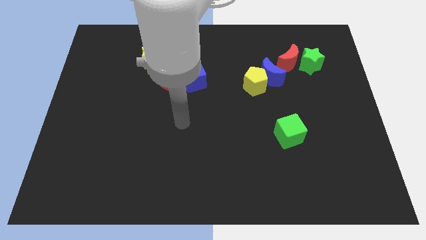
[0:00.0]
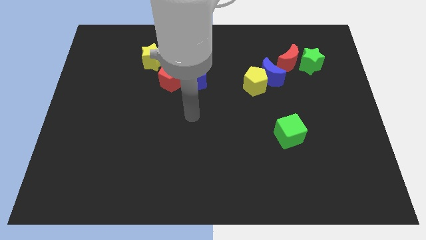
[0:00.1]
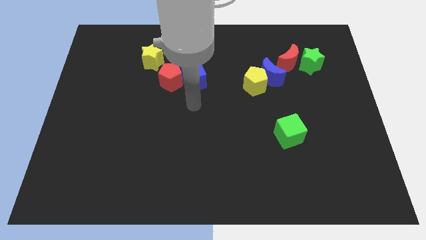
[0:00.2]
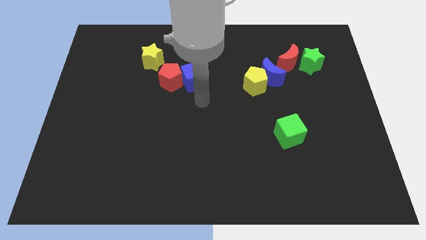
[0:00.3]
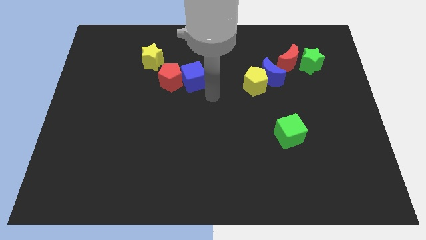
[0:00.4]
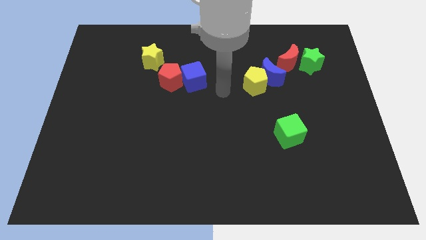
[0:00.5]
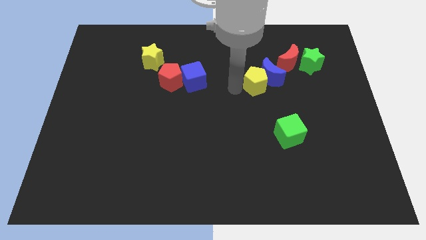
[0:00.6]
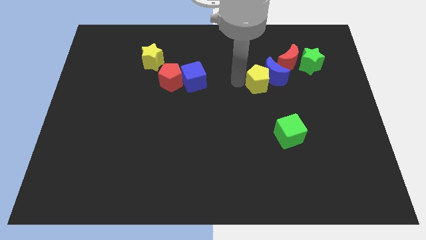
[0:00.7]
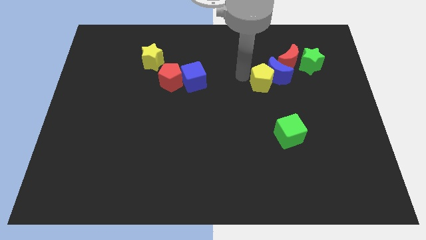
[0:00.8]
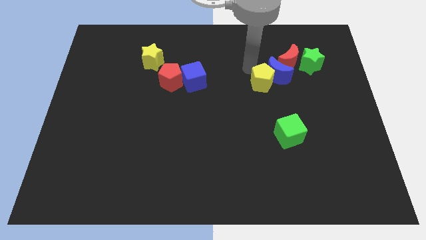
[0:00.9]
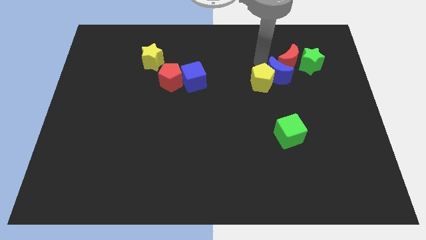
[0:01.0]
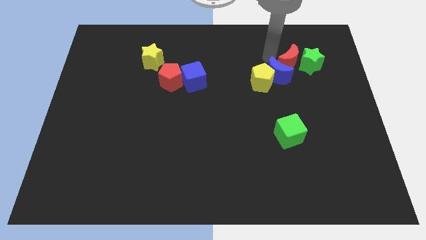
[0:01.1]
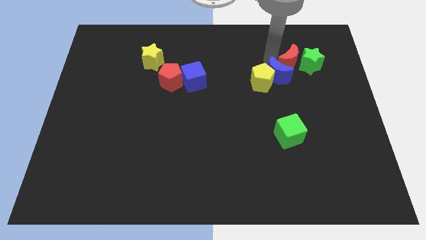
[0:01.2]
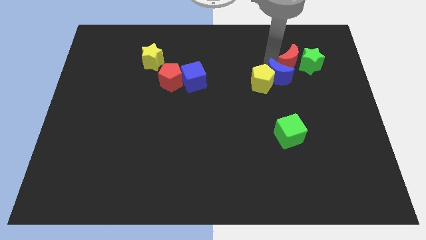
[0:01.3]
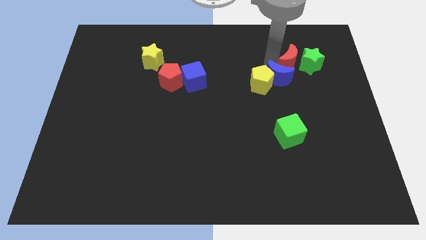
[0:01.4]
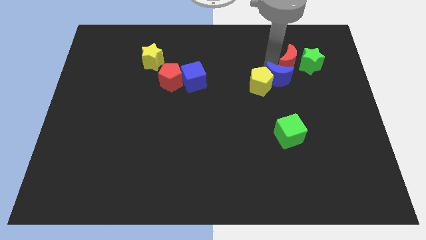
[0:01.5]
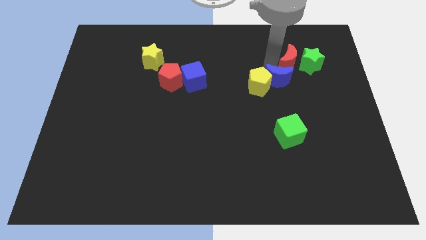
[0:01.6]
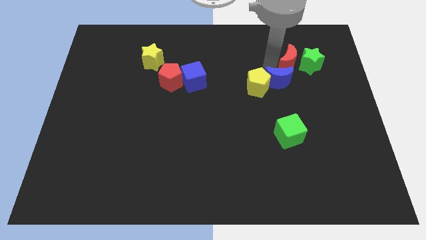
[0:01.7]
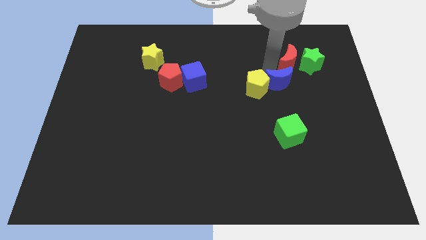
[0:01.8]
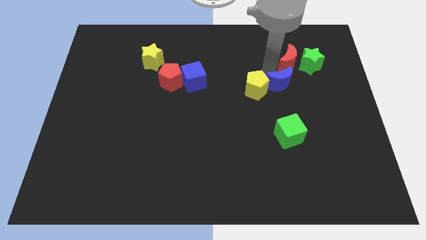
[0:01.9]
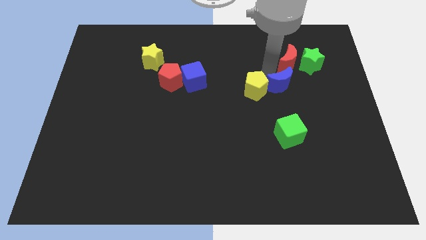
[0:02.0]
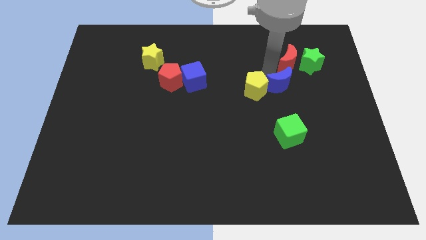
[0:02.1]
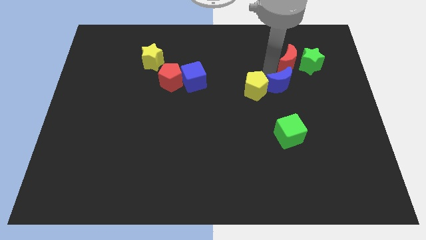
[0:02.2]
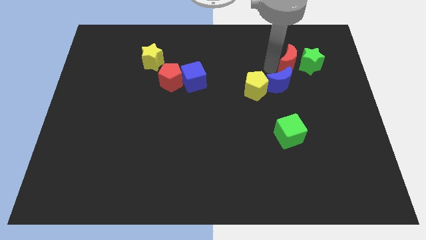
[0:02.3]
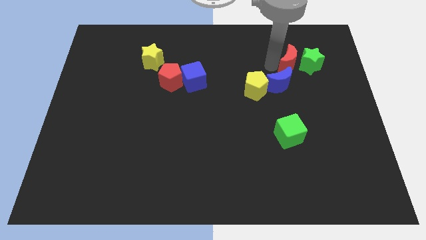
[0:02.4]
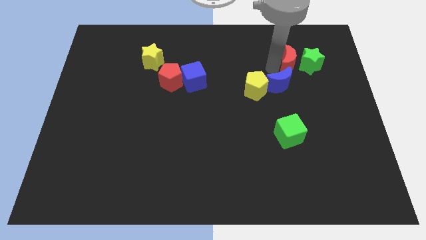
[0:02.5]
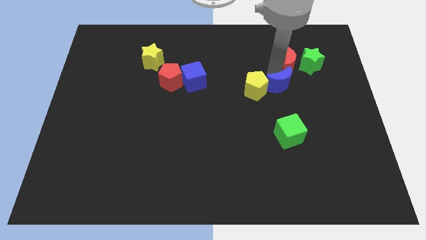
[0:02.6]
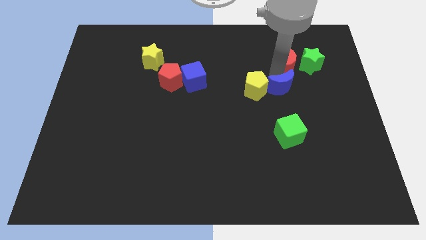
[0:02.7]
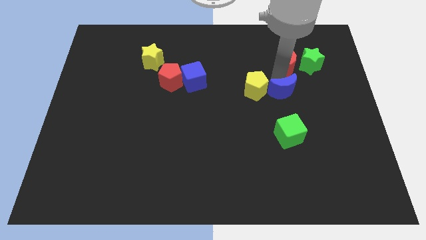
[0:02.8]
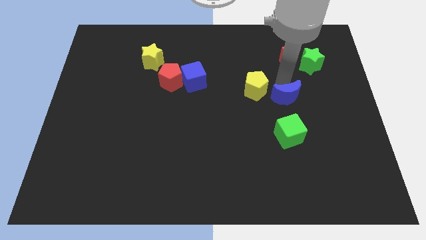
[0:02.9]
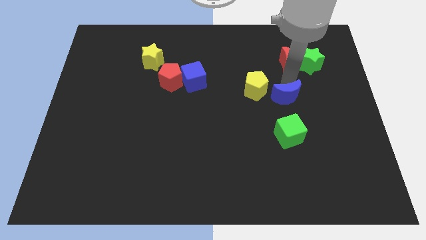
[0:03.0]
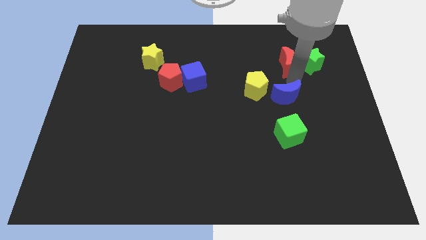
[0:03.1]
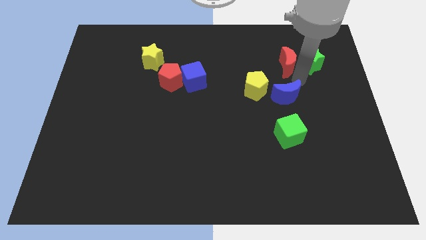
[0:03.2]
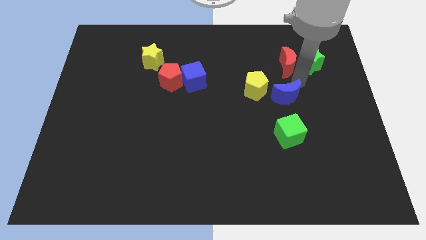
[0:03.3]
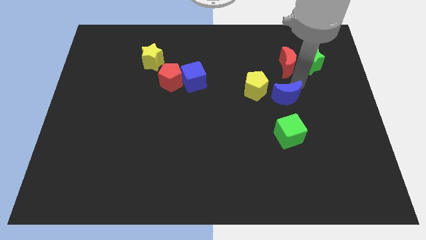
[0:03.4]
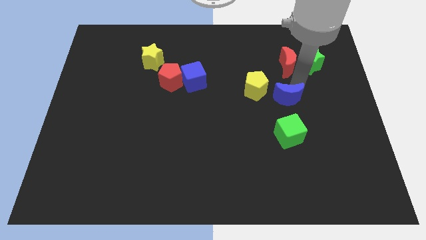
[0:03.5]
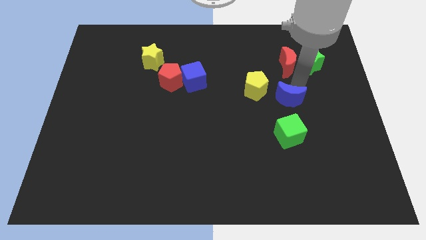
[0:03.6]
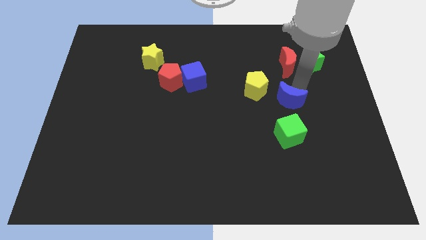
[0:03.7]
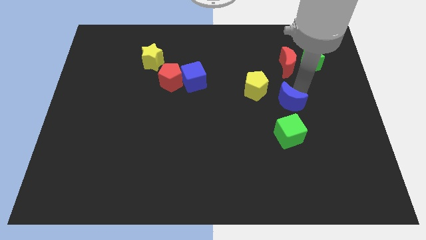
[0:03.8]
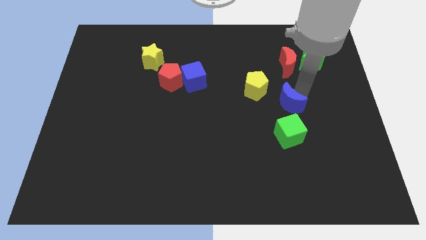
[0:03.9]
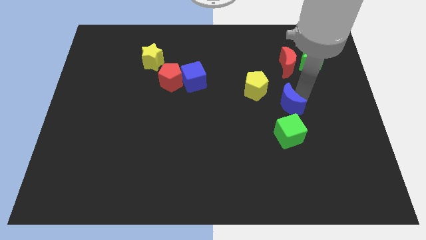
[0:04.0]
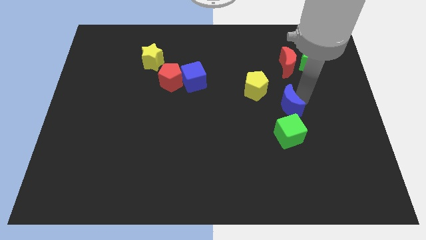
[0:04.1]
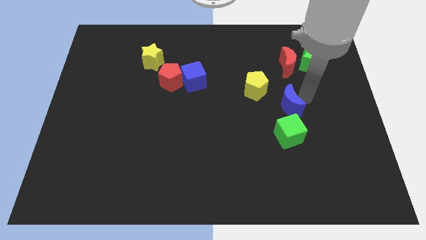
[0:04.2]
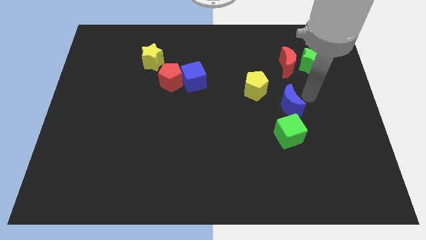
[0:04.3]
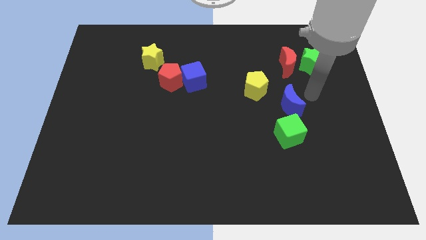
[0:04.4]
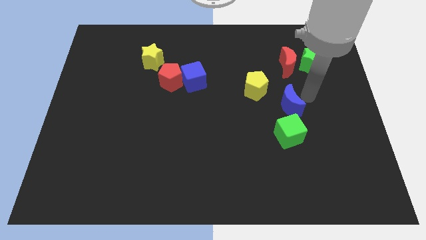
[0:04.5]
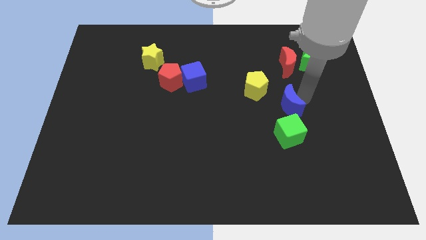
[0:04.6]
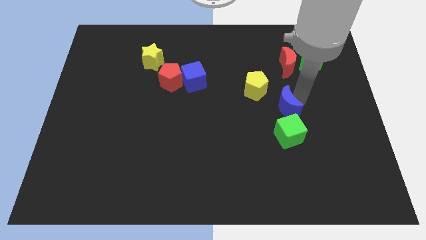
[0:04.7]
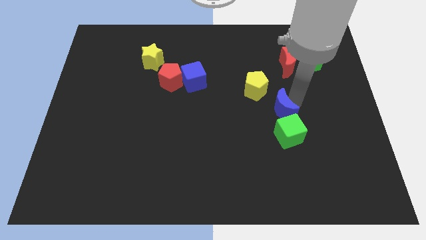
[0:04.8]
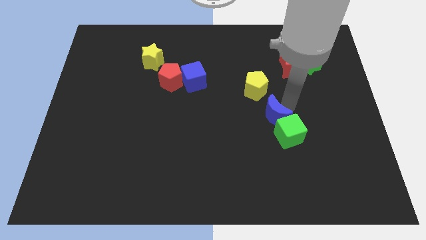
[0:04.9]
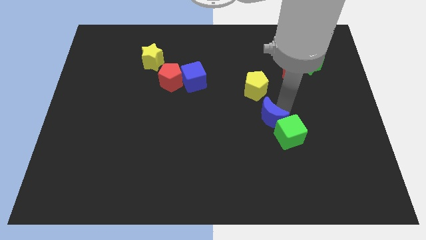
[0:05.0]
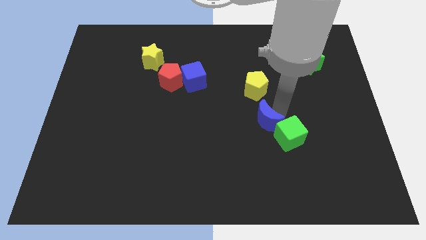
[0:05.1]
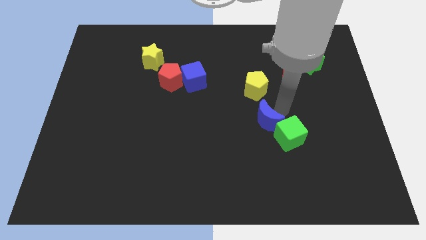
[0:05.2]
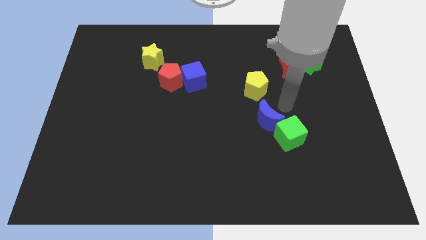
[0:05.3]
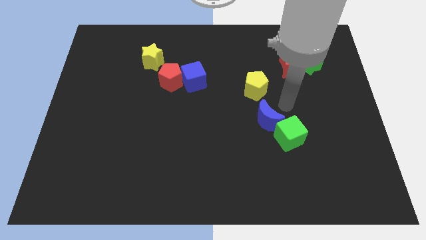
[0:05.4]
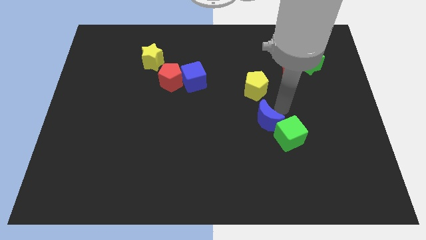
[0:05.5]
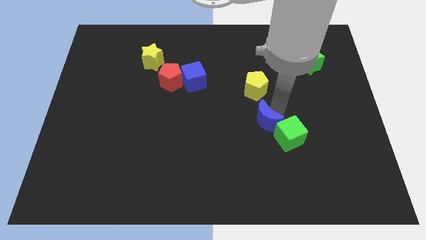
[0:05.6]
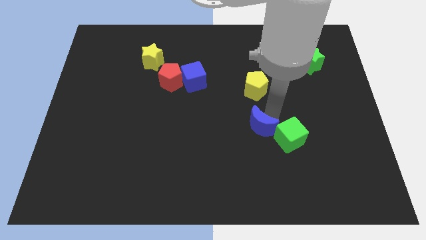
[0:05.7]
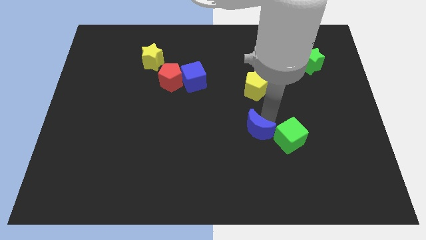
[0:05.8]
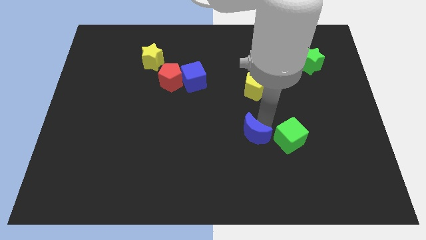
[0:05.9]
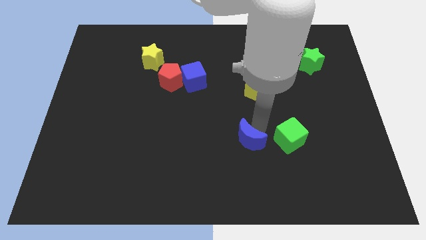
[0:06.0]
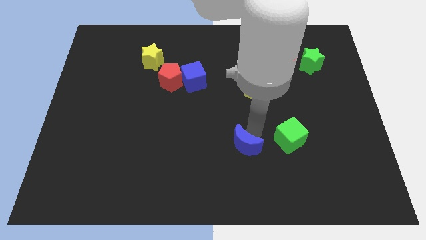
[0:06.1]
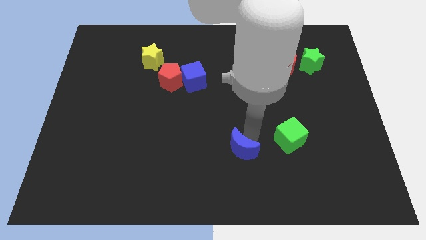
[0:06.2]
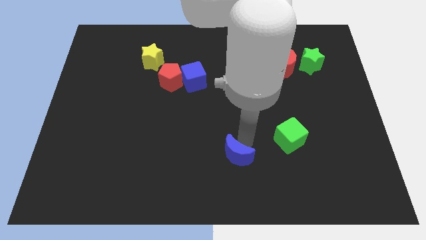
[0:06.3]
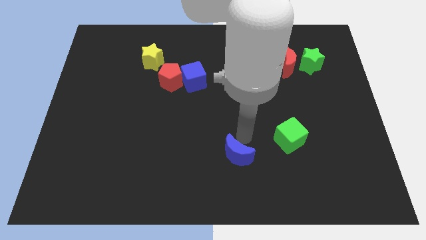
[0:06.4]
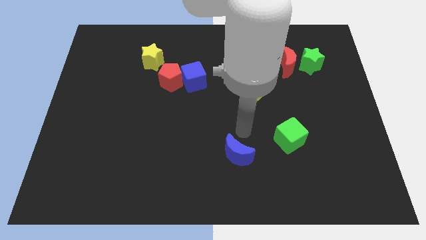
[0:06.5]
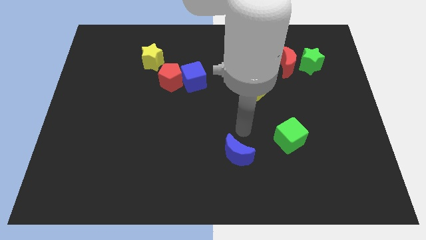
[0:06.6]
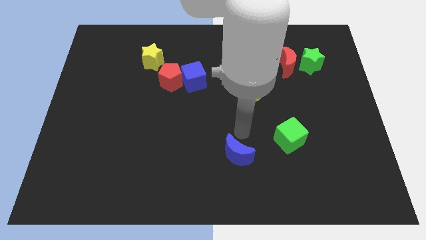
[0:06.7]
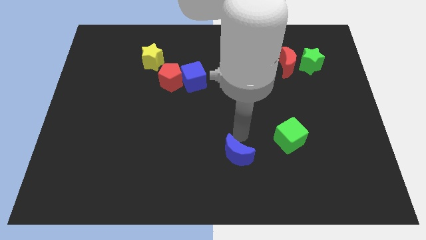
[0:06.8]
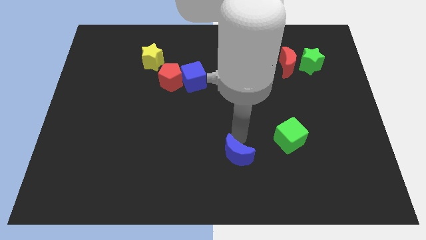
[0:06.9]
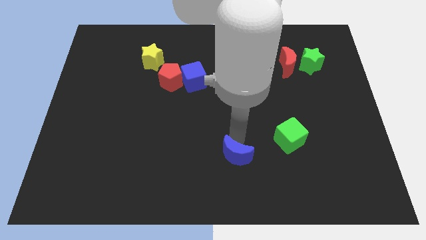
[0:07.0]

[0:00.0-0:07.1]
move the blue moon to the bottom

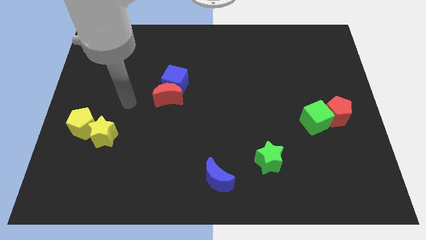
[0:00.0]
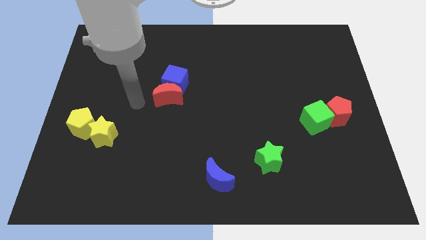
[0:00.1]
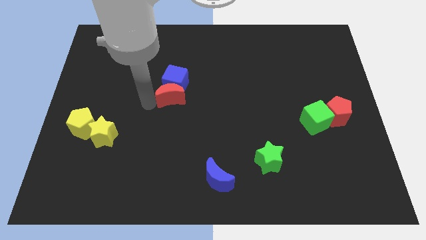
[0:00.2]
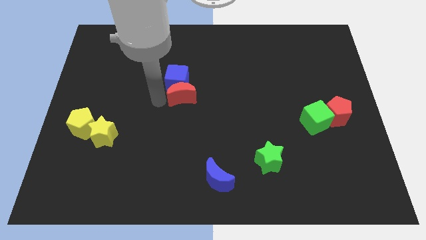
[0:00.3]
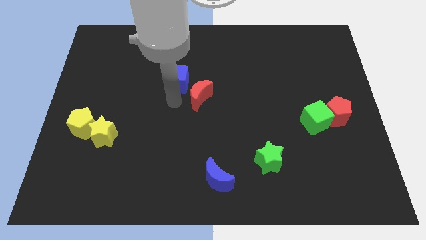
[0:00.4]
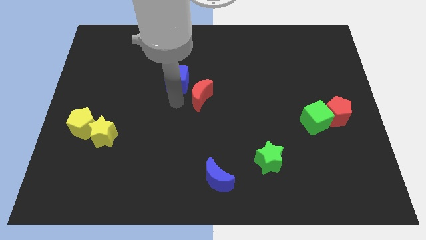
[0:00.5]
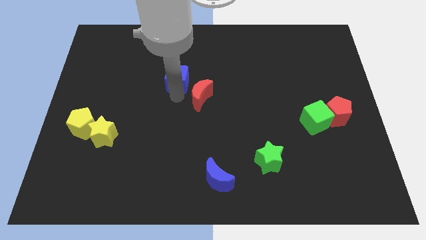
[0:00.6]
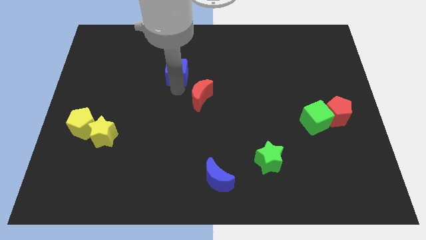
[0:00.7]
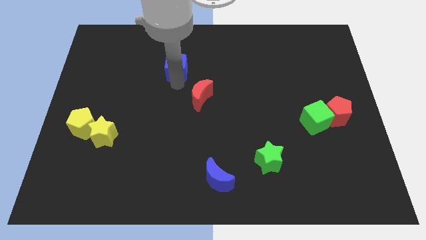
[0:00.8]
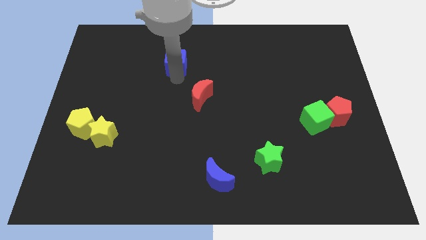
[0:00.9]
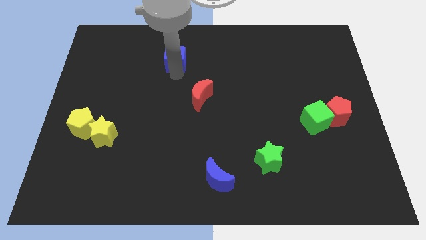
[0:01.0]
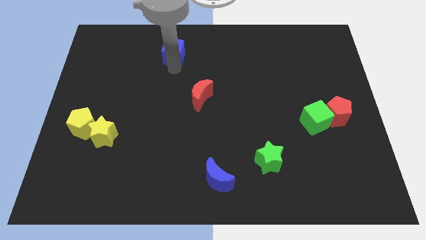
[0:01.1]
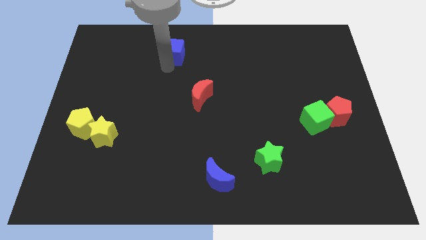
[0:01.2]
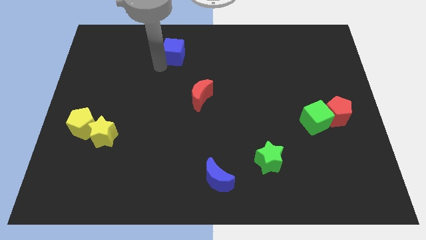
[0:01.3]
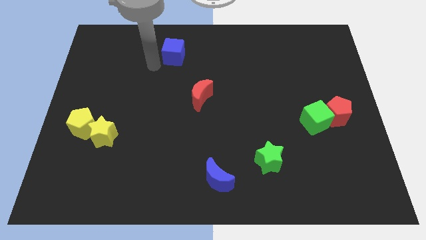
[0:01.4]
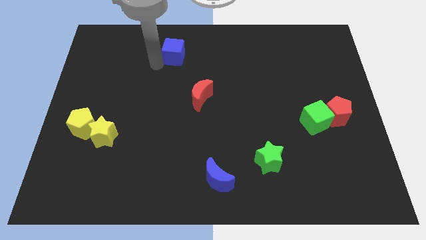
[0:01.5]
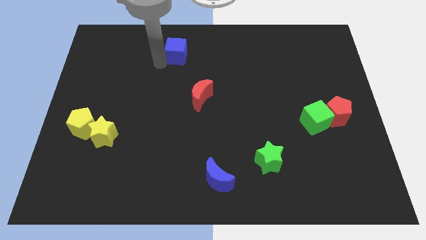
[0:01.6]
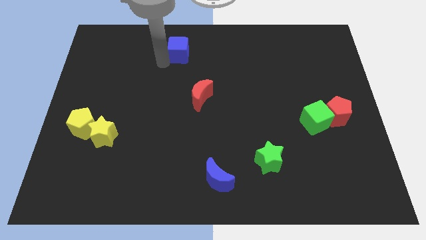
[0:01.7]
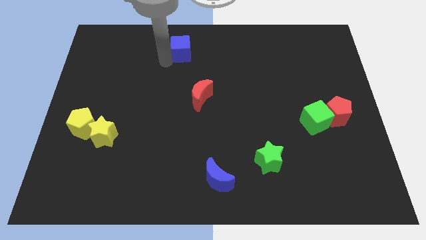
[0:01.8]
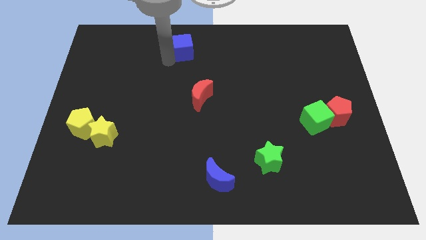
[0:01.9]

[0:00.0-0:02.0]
move the blue cube to the towards your base
